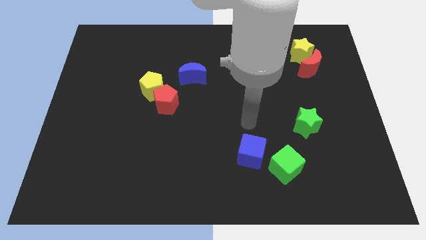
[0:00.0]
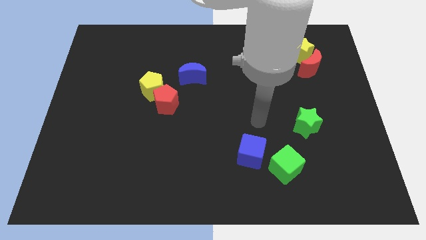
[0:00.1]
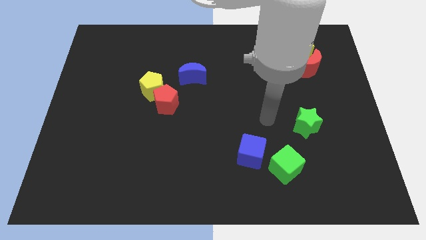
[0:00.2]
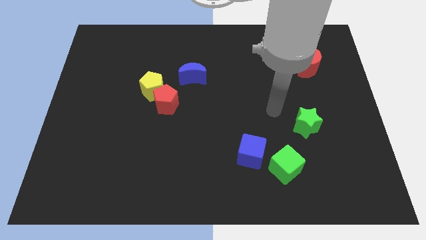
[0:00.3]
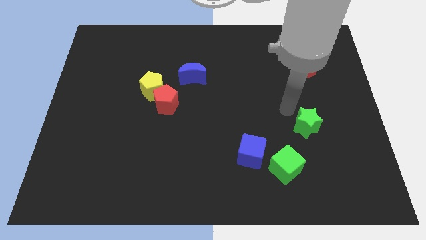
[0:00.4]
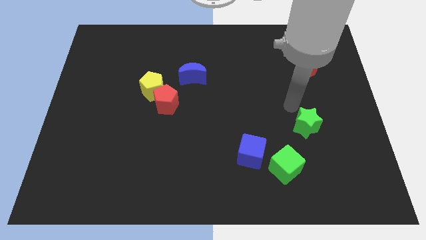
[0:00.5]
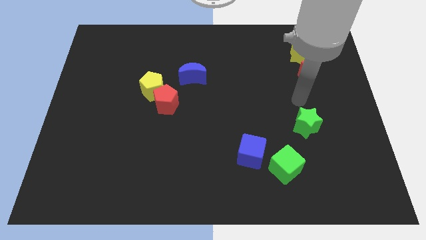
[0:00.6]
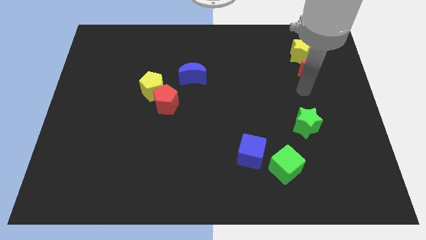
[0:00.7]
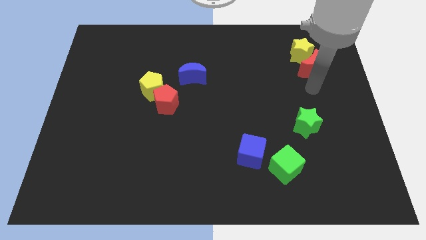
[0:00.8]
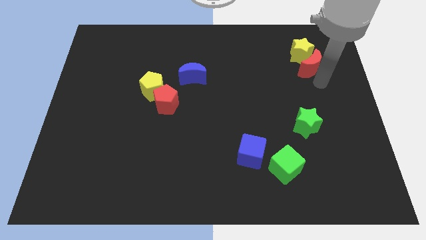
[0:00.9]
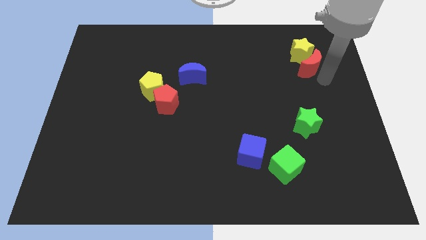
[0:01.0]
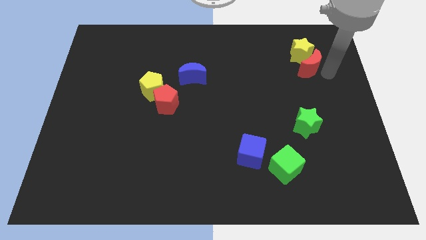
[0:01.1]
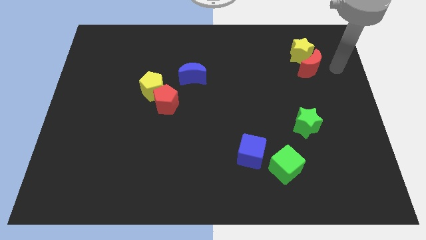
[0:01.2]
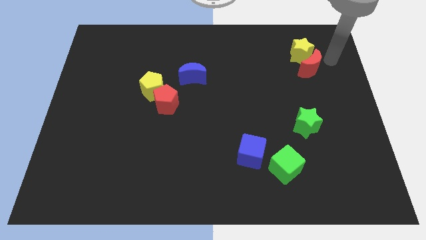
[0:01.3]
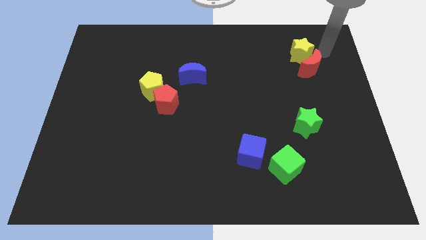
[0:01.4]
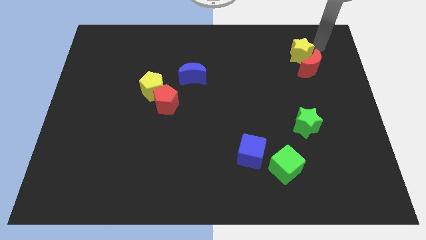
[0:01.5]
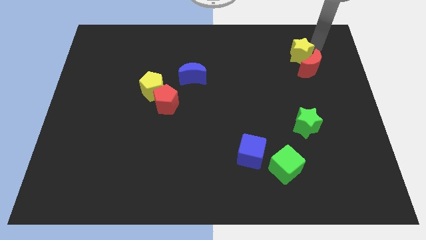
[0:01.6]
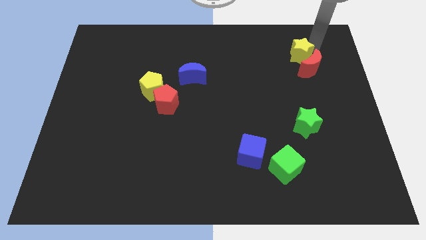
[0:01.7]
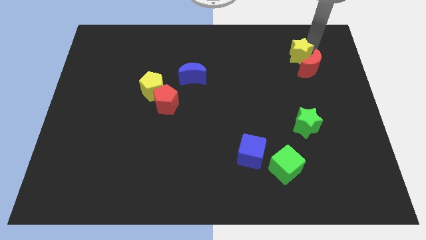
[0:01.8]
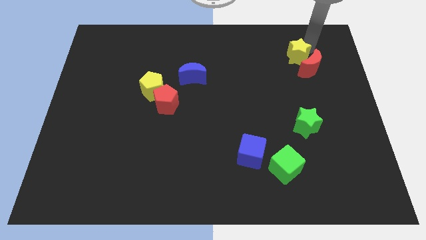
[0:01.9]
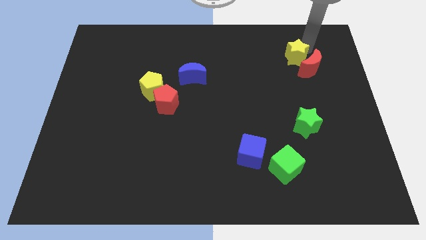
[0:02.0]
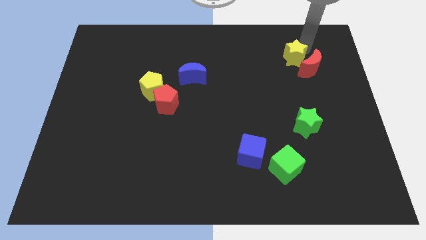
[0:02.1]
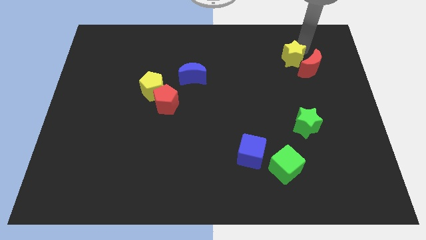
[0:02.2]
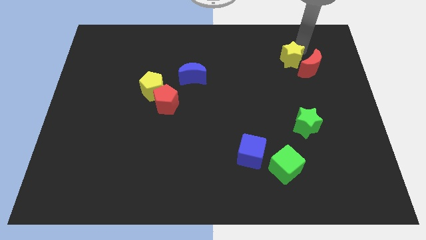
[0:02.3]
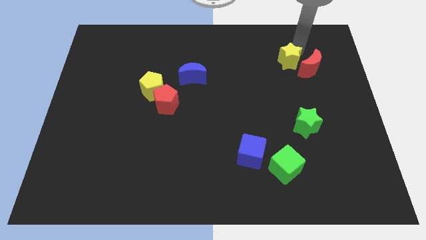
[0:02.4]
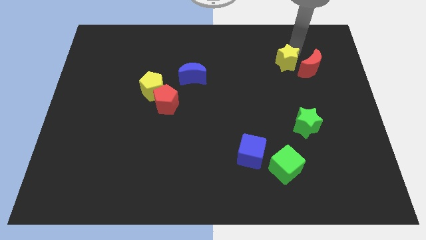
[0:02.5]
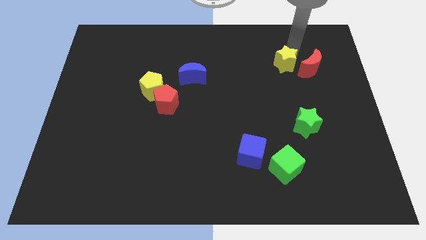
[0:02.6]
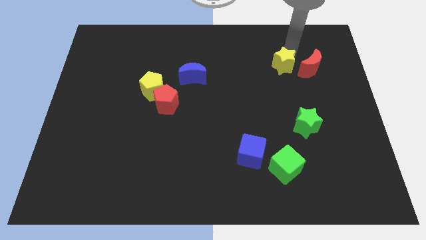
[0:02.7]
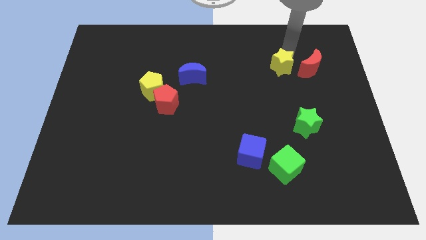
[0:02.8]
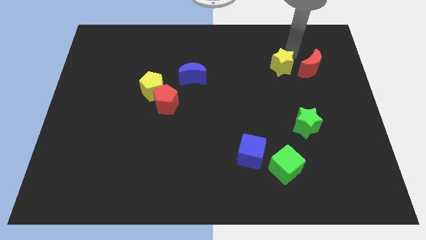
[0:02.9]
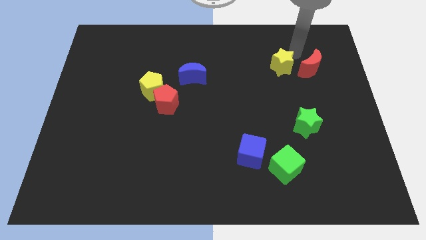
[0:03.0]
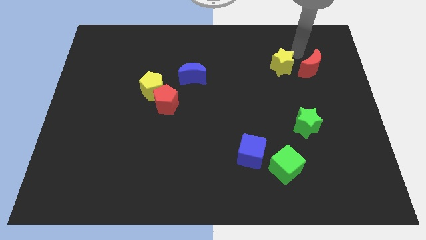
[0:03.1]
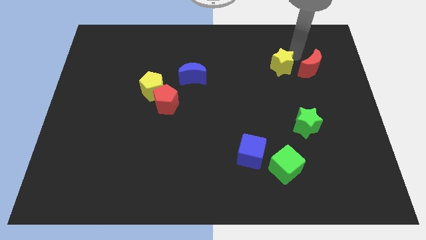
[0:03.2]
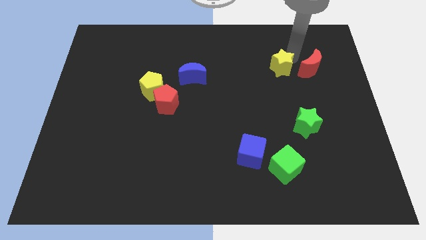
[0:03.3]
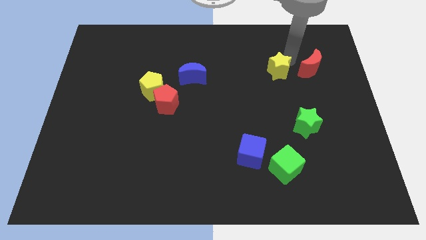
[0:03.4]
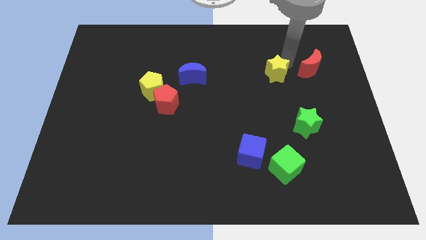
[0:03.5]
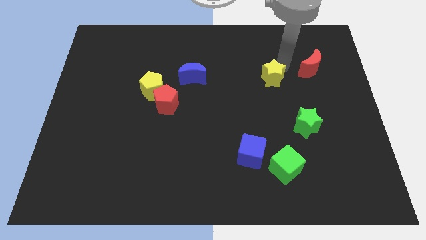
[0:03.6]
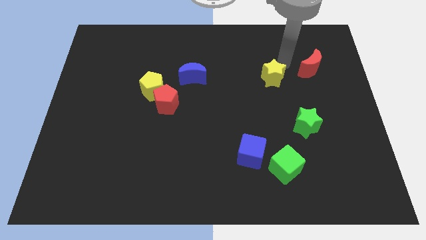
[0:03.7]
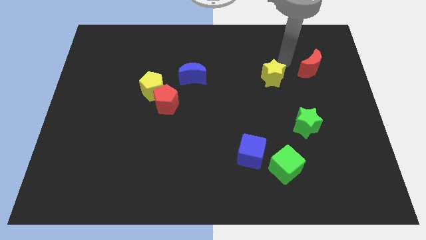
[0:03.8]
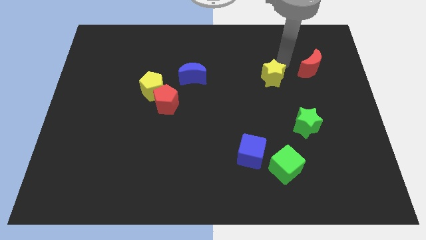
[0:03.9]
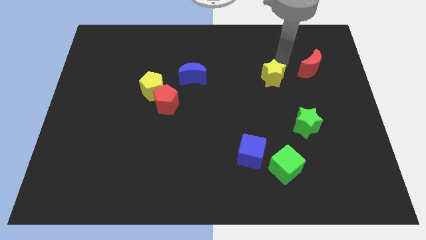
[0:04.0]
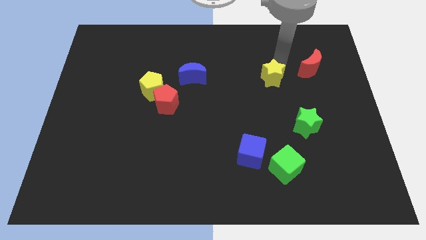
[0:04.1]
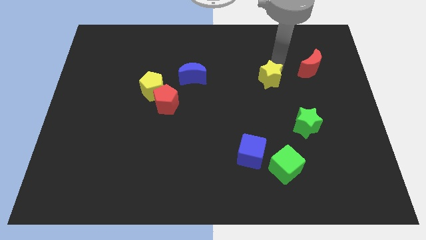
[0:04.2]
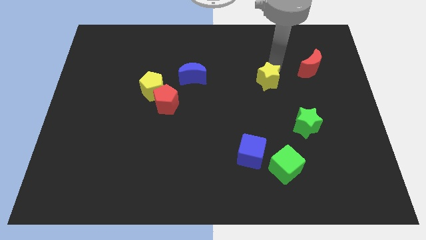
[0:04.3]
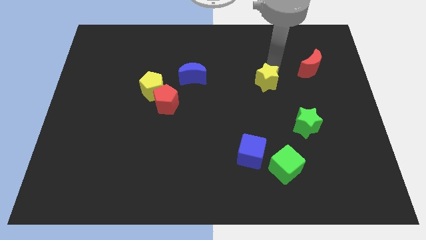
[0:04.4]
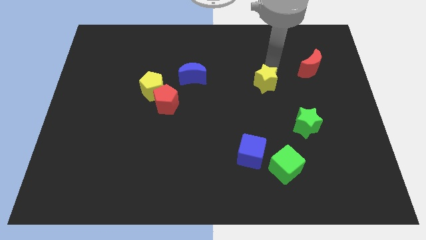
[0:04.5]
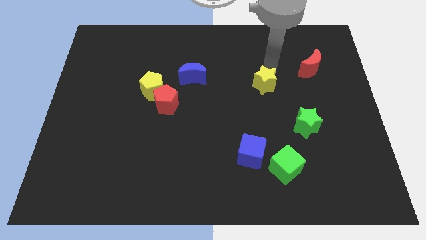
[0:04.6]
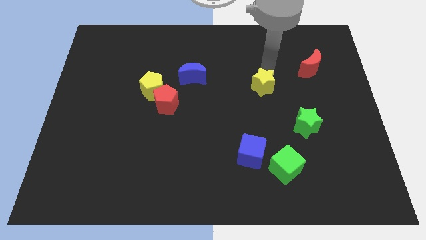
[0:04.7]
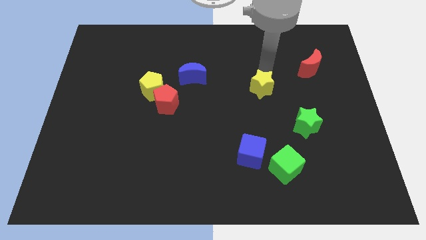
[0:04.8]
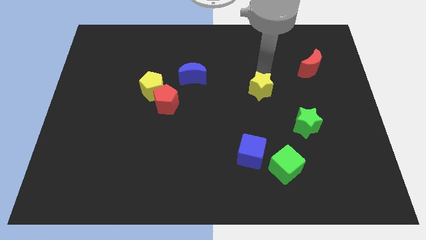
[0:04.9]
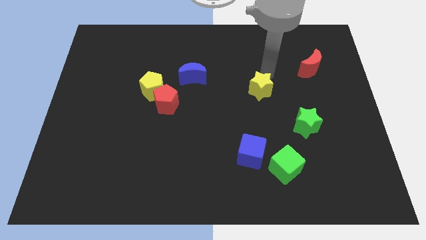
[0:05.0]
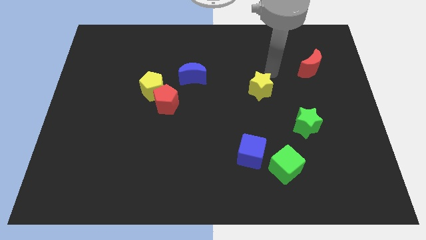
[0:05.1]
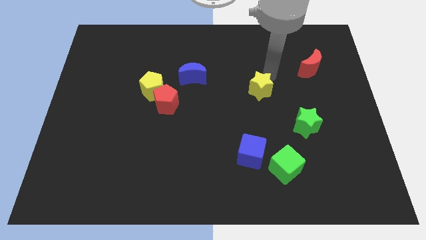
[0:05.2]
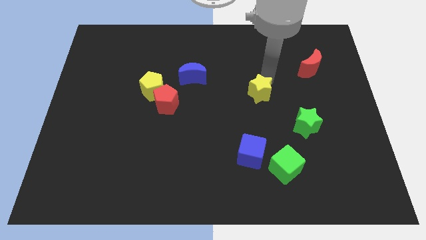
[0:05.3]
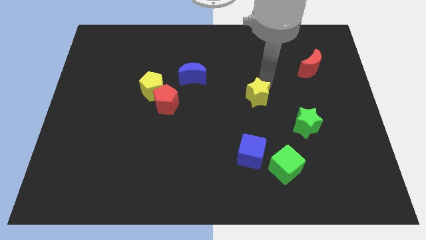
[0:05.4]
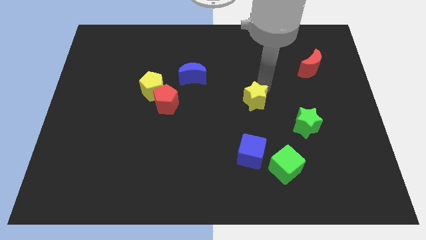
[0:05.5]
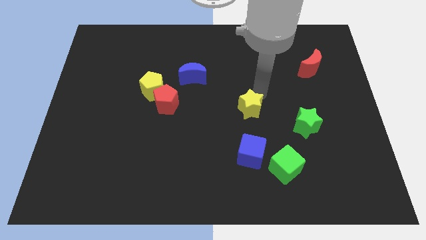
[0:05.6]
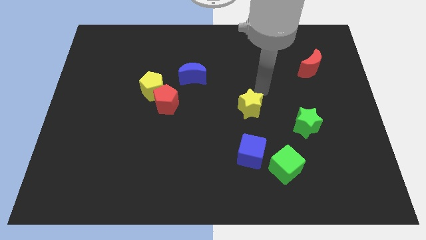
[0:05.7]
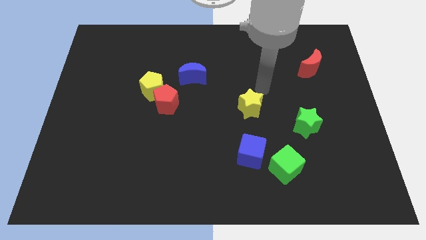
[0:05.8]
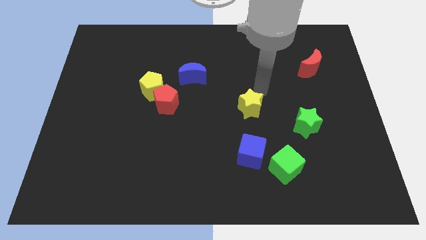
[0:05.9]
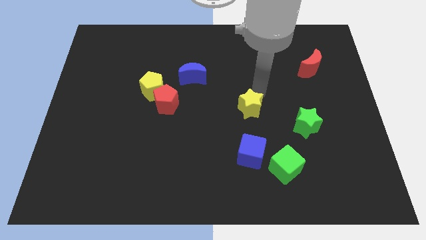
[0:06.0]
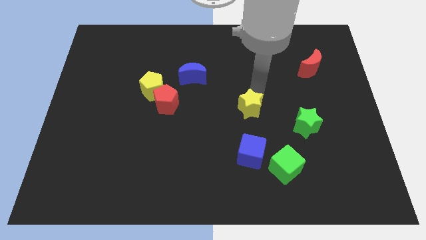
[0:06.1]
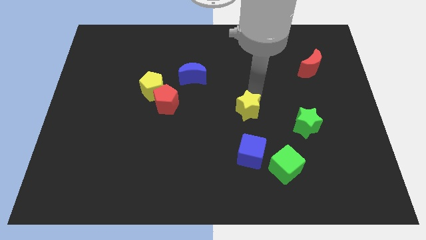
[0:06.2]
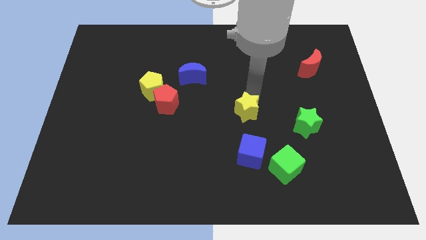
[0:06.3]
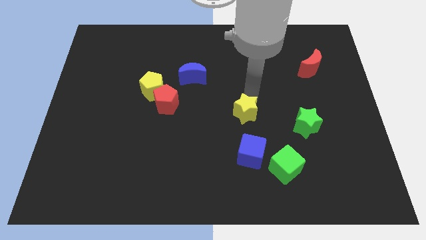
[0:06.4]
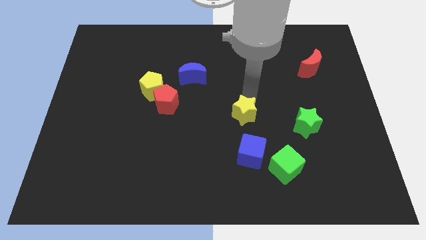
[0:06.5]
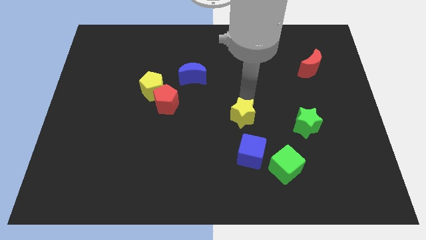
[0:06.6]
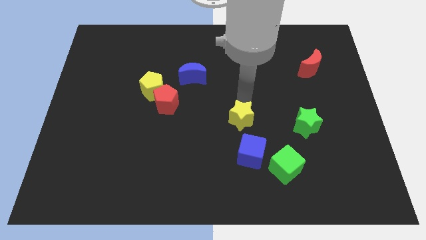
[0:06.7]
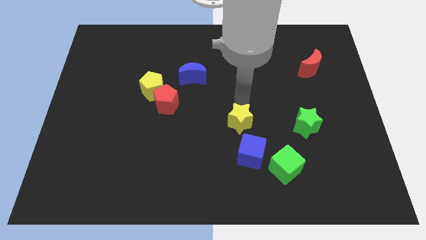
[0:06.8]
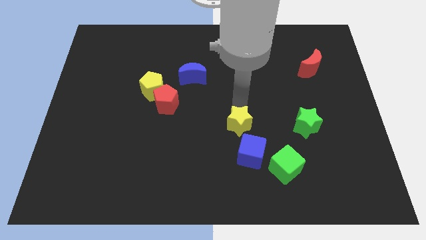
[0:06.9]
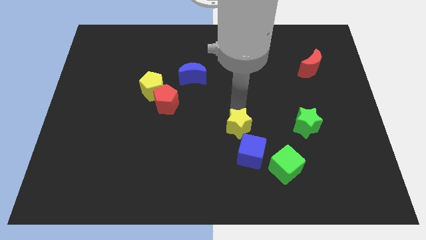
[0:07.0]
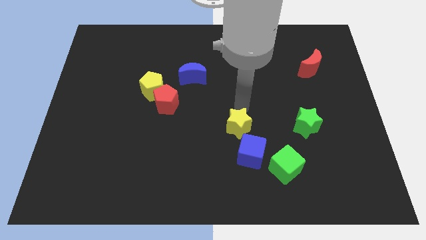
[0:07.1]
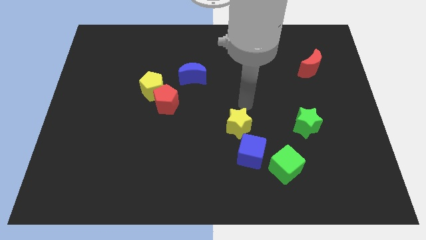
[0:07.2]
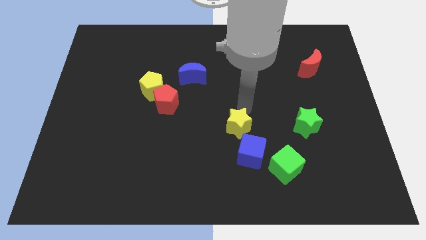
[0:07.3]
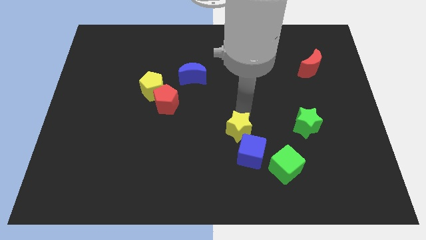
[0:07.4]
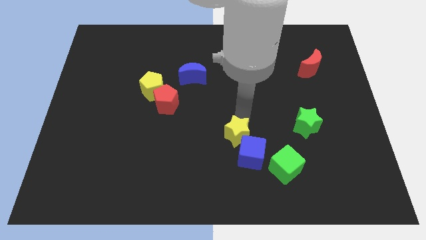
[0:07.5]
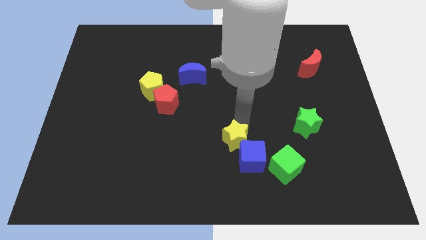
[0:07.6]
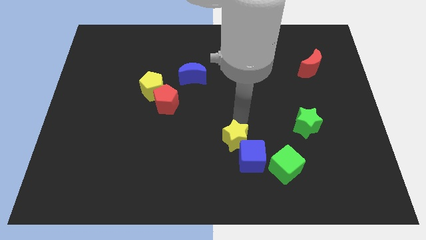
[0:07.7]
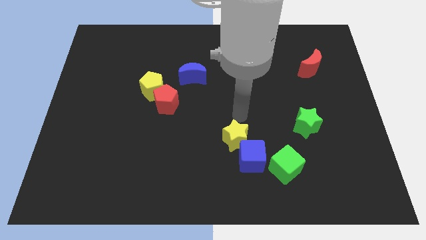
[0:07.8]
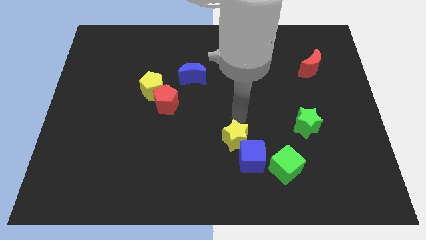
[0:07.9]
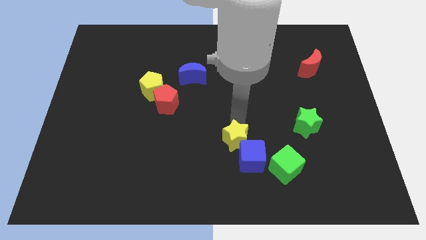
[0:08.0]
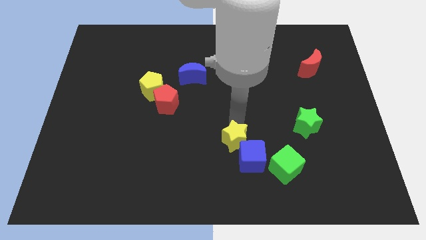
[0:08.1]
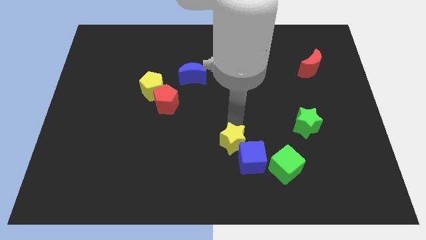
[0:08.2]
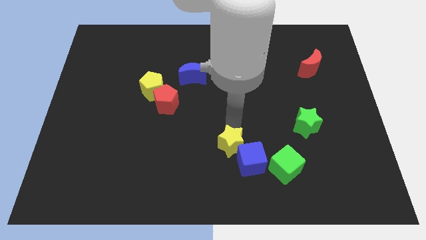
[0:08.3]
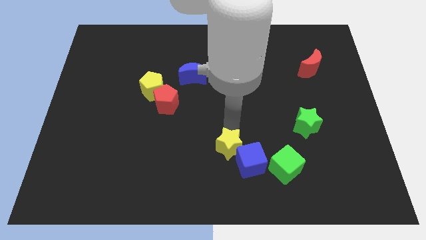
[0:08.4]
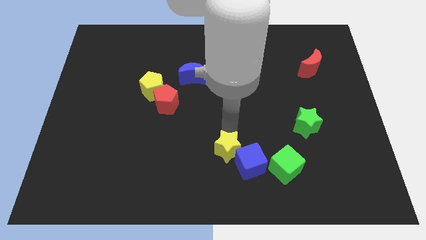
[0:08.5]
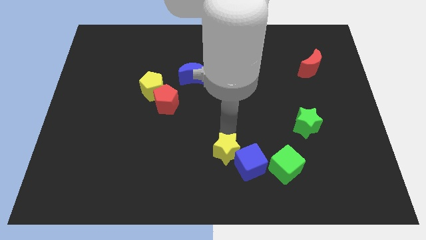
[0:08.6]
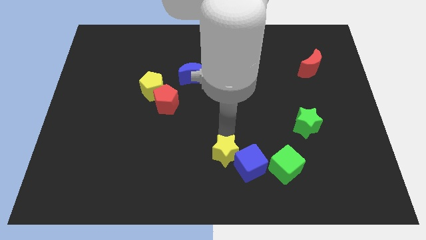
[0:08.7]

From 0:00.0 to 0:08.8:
put the yellow star to the bottom
